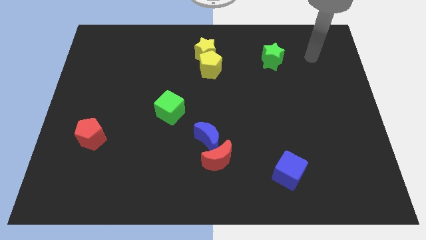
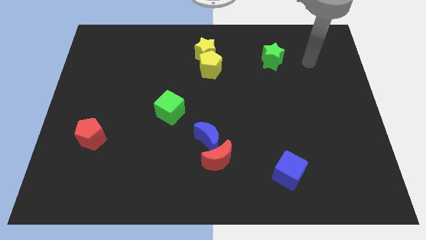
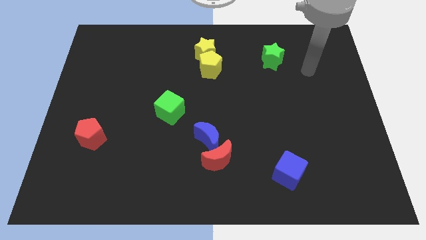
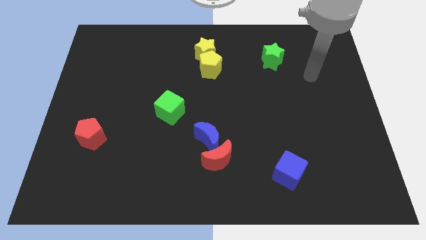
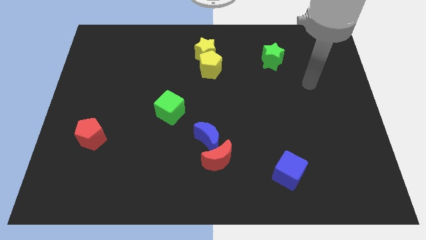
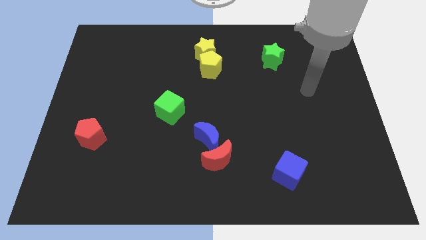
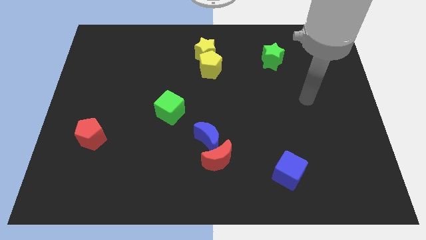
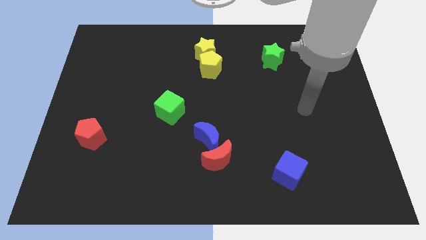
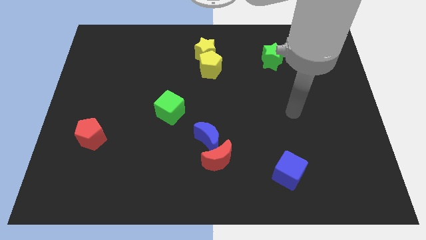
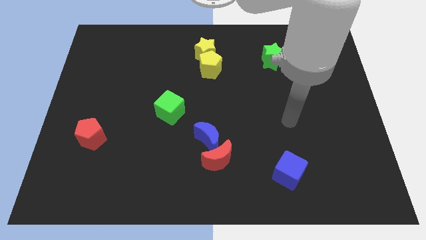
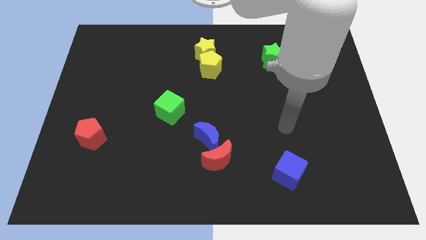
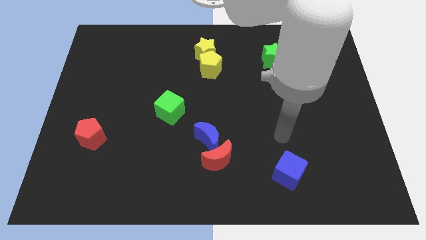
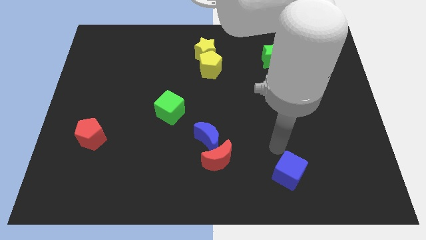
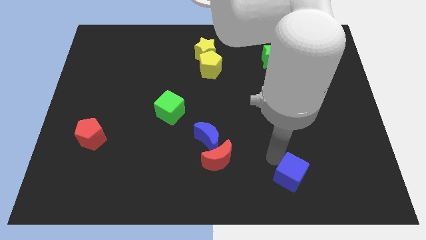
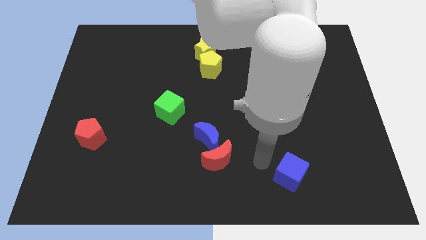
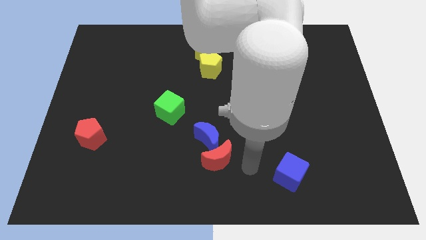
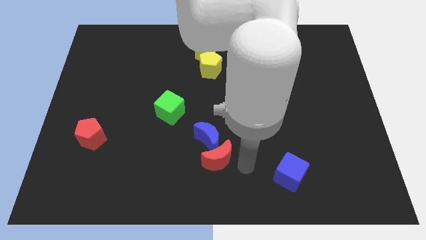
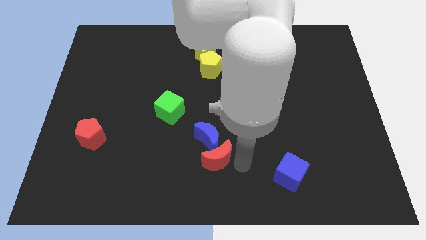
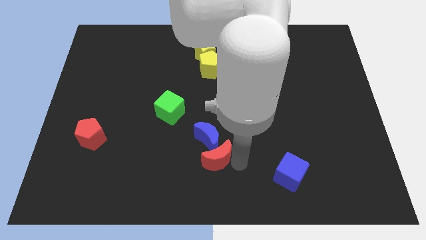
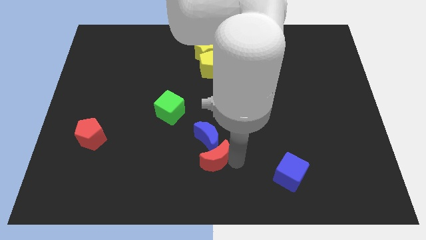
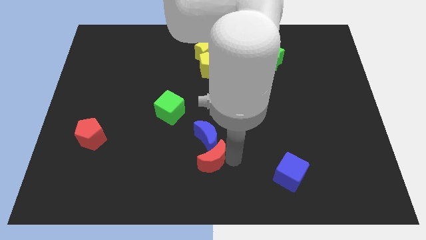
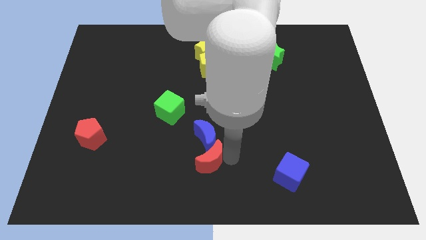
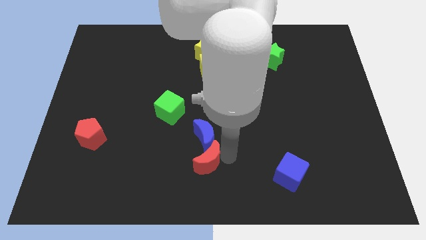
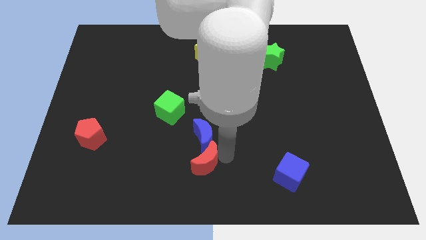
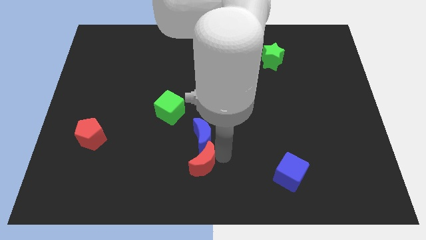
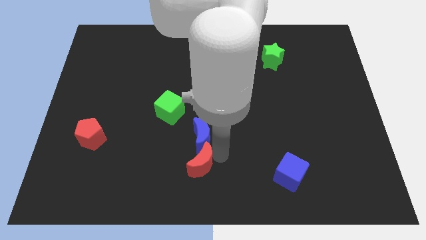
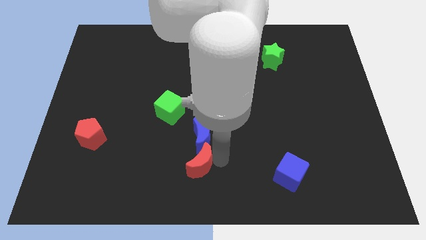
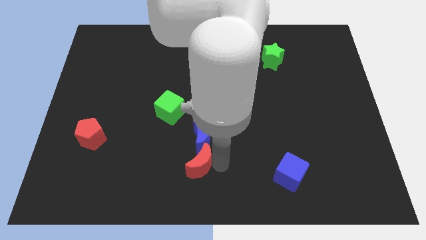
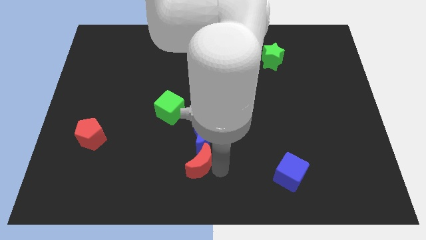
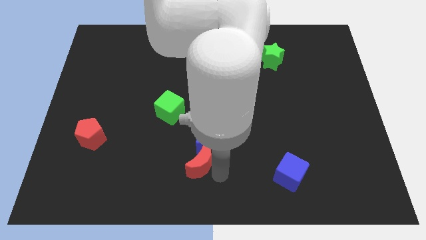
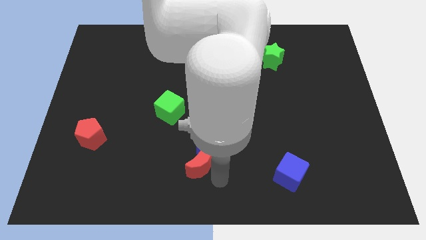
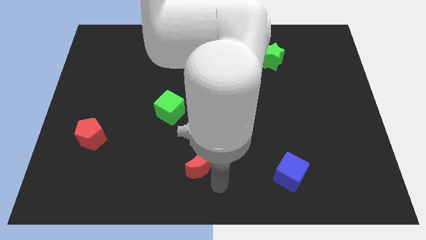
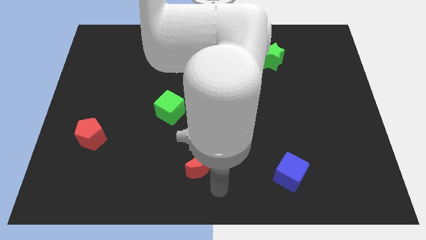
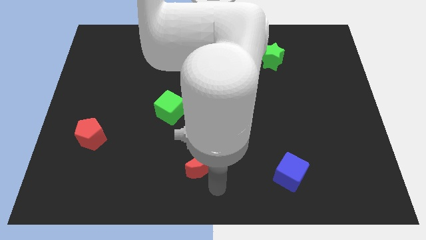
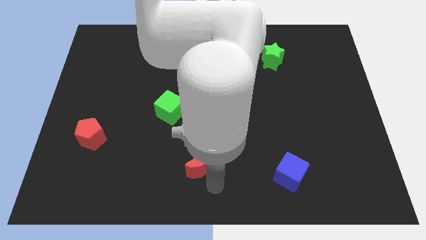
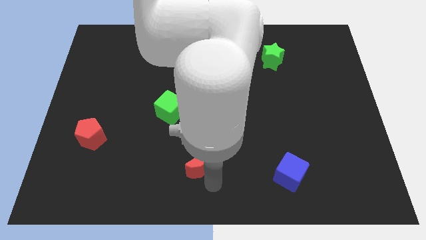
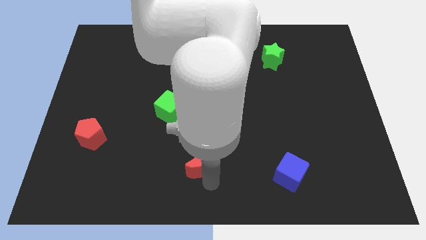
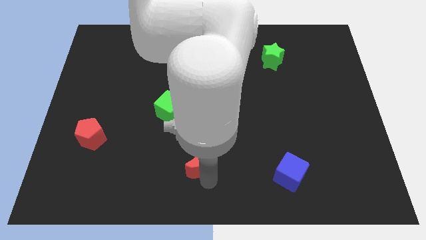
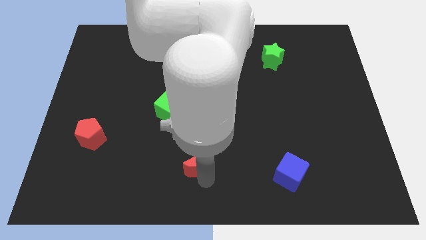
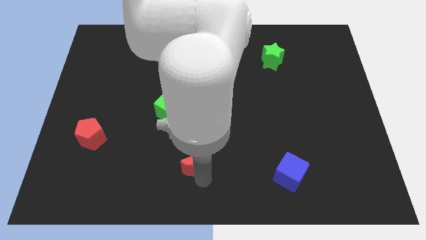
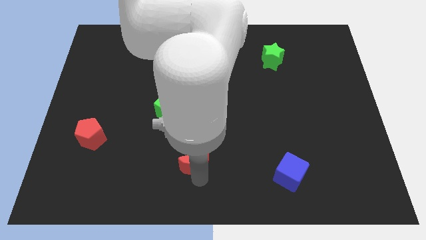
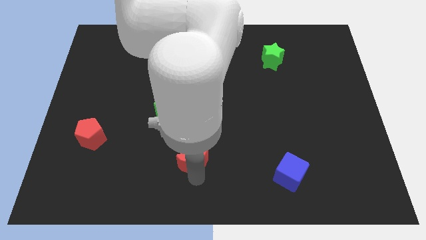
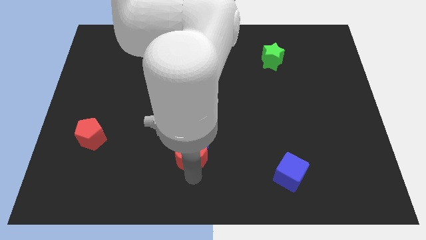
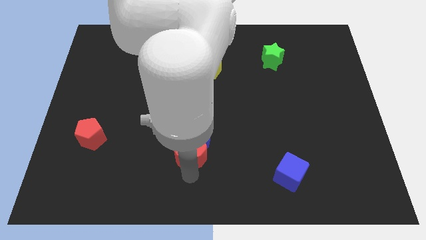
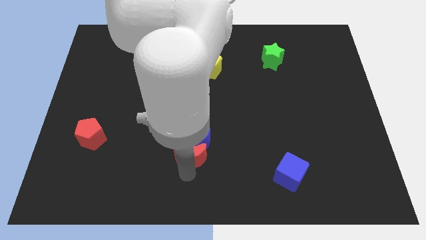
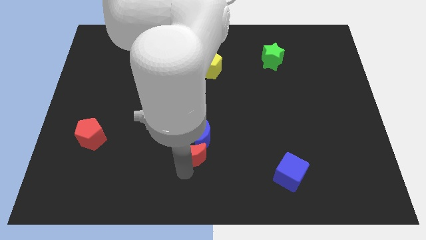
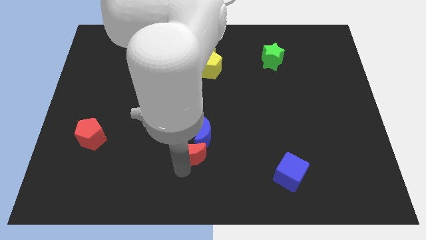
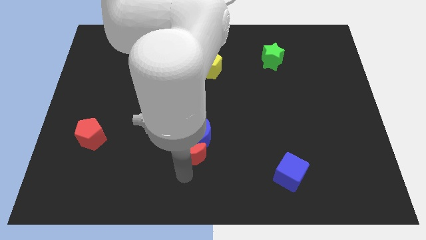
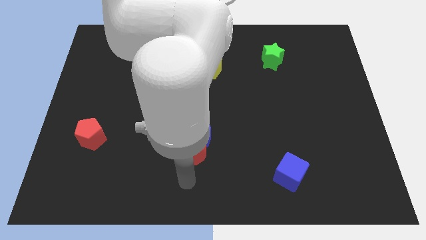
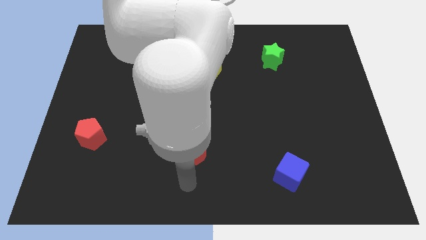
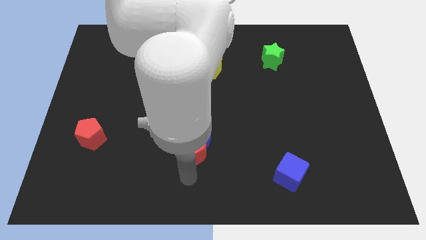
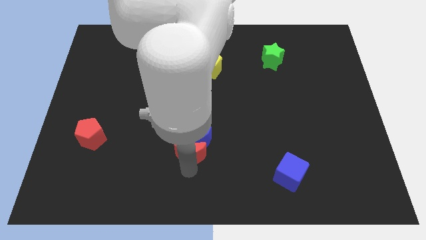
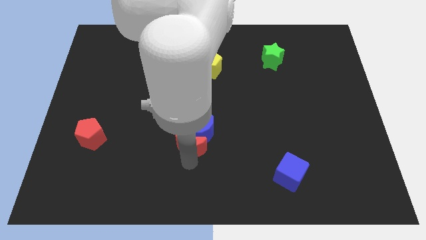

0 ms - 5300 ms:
put the red moon to the bottom right side of the green cube

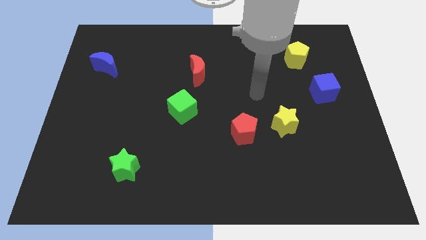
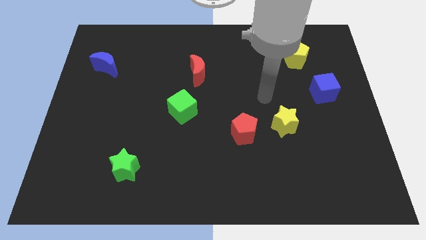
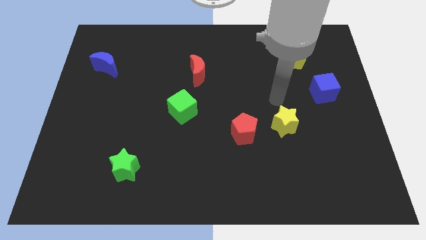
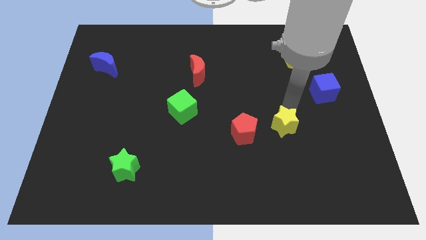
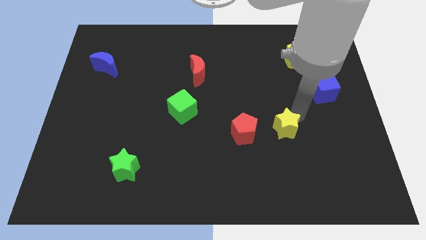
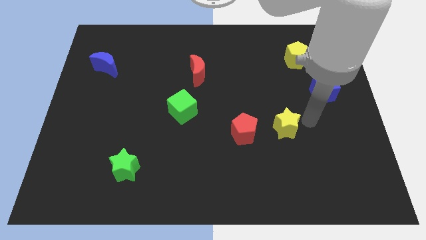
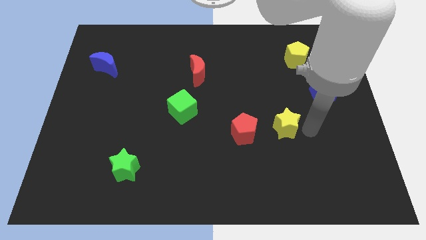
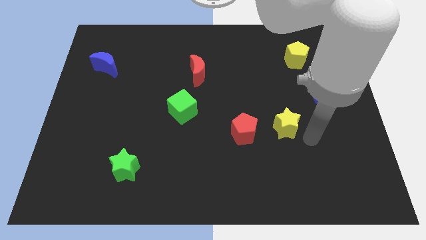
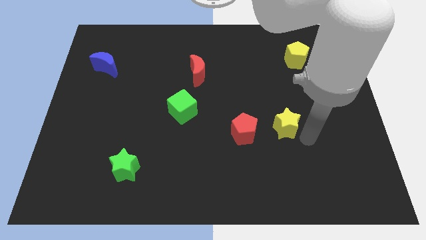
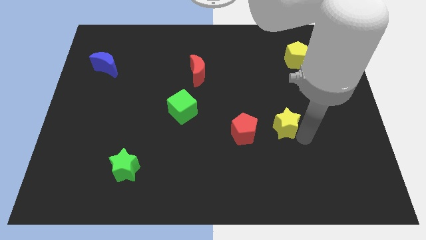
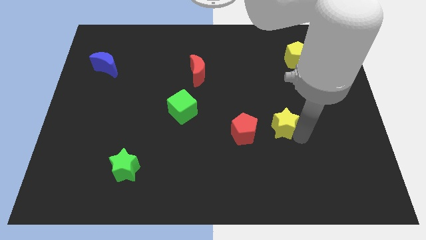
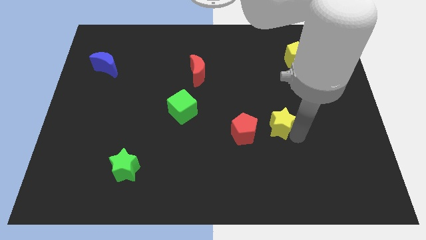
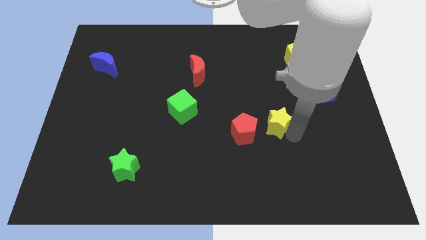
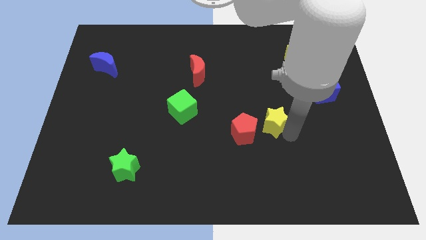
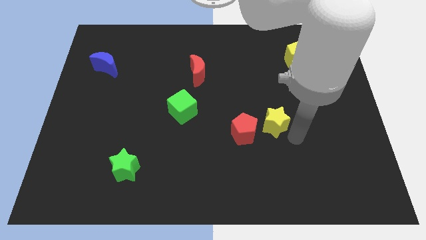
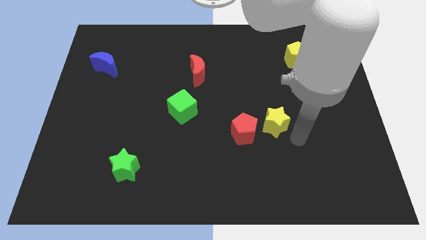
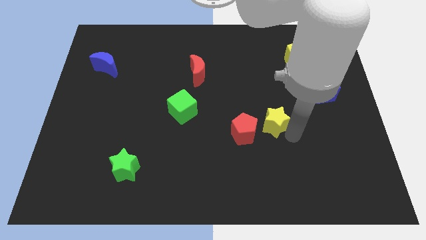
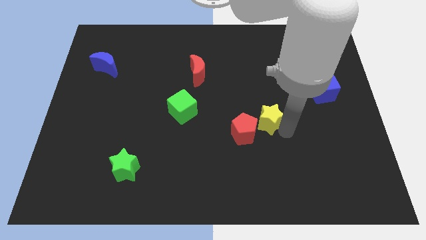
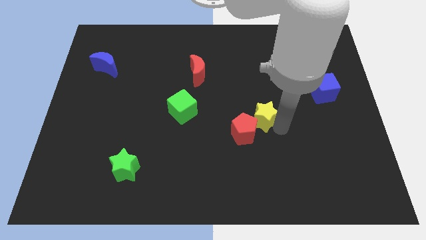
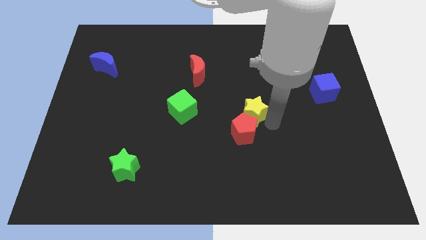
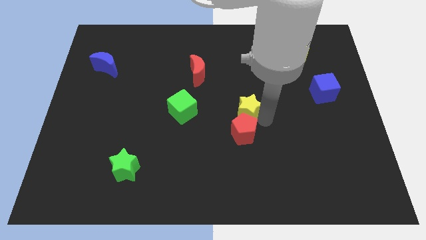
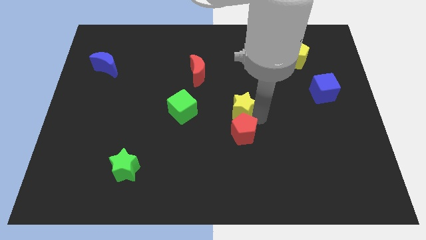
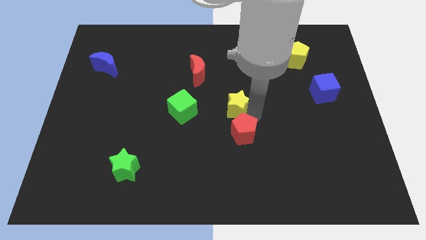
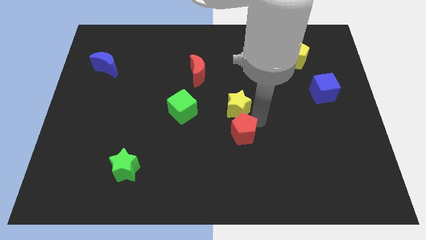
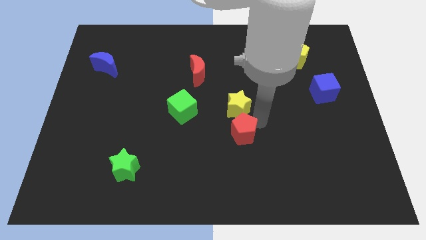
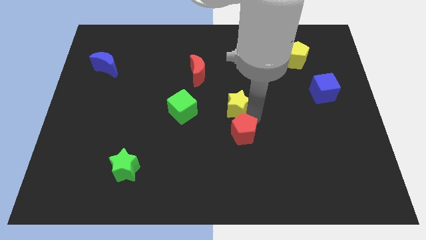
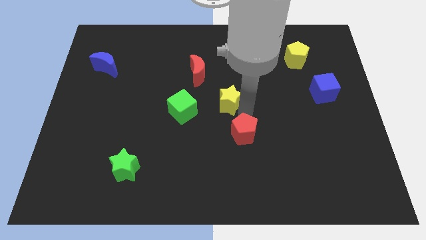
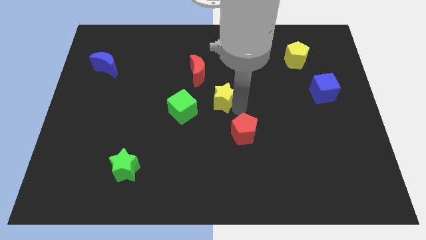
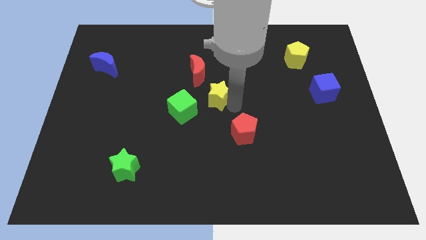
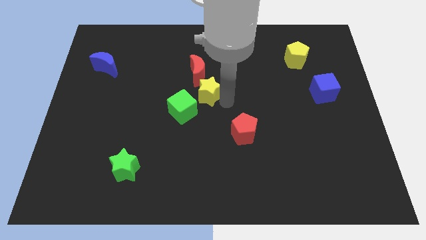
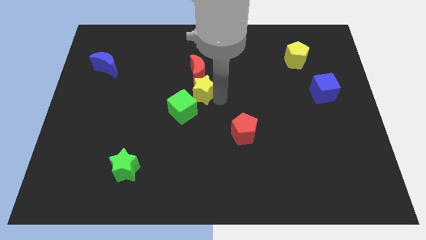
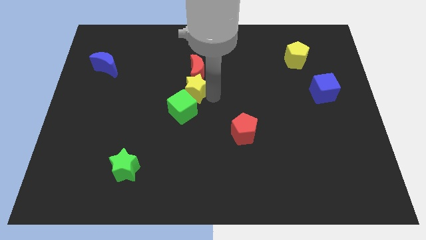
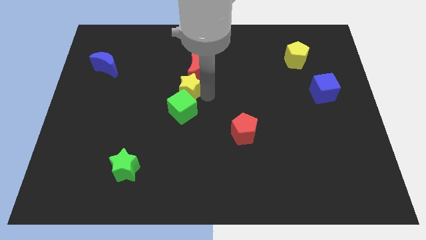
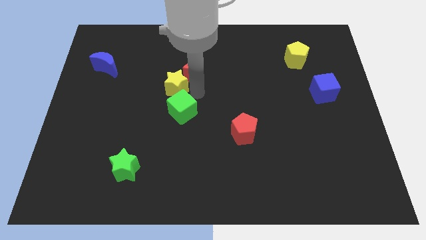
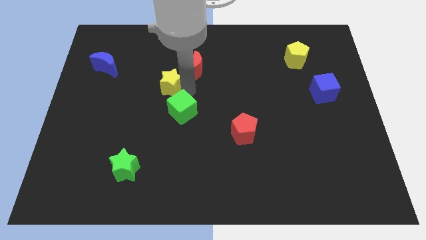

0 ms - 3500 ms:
push the yellow star left of the red moon
